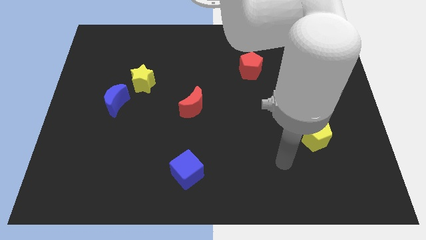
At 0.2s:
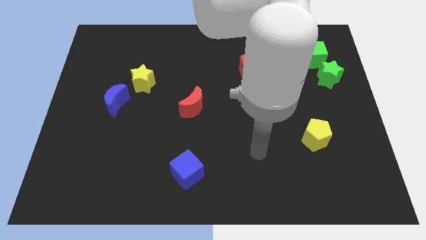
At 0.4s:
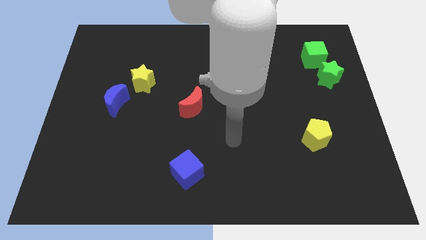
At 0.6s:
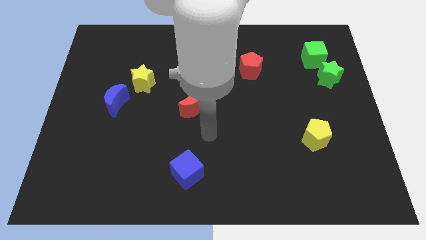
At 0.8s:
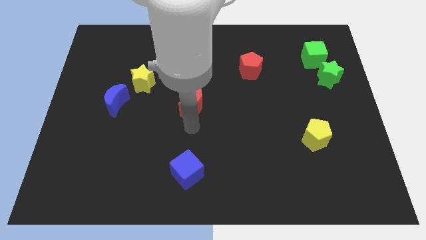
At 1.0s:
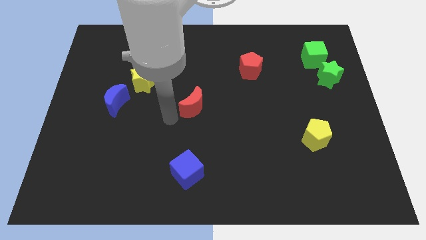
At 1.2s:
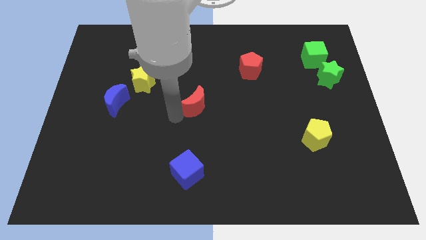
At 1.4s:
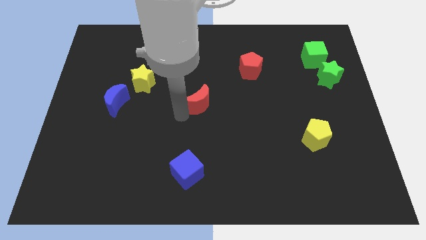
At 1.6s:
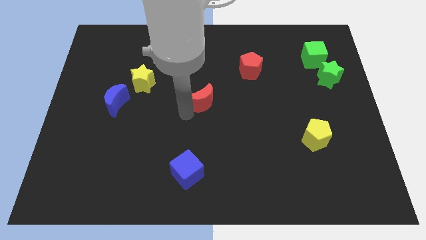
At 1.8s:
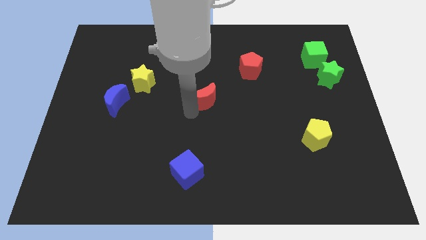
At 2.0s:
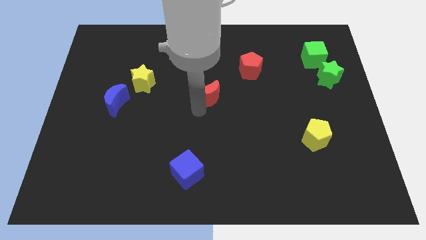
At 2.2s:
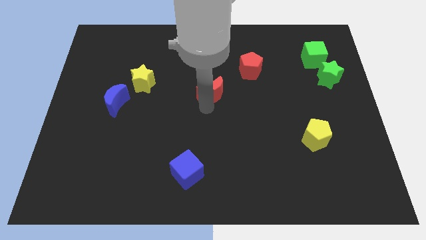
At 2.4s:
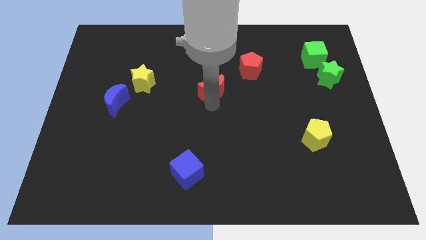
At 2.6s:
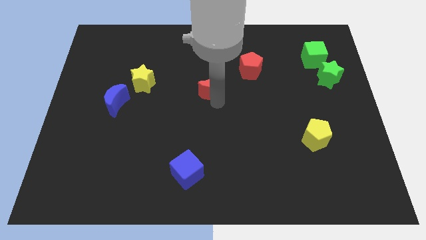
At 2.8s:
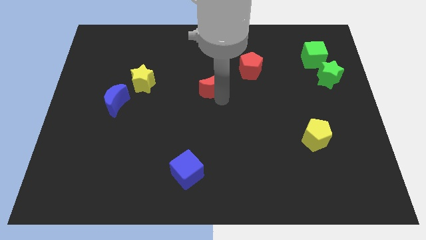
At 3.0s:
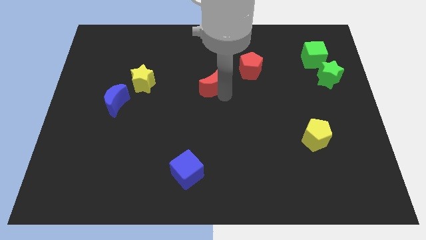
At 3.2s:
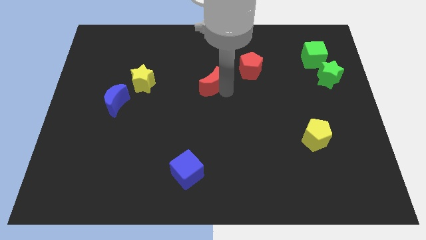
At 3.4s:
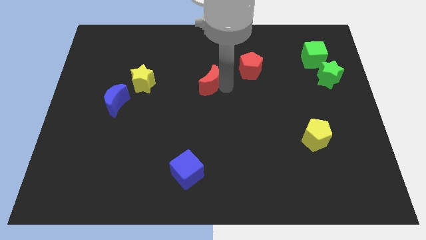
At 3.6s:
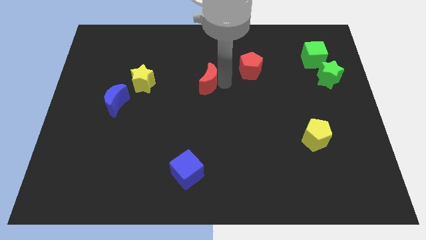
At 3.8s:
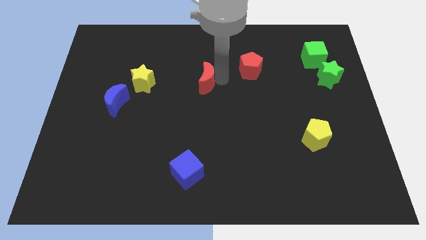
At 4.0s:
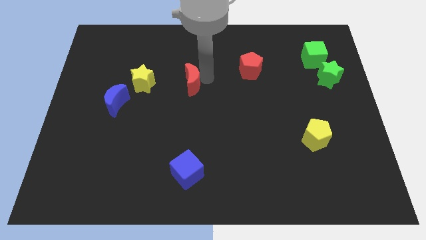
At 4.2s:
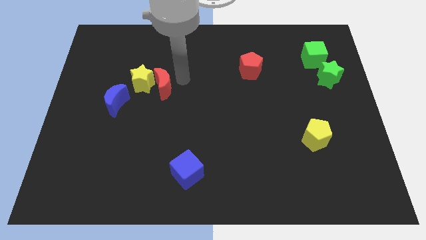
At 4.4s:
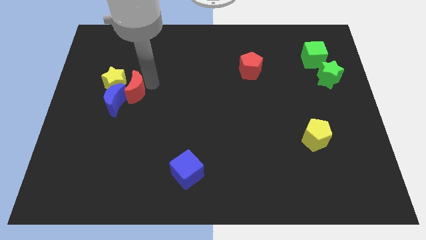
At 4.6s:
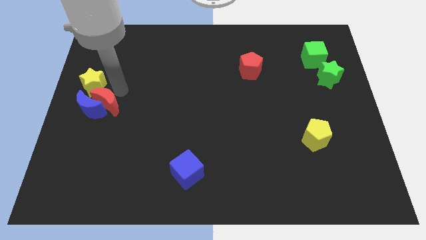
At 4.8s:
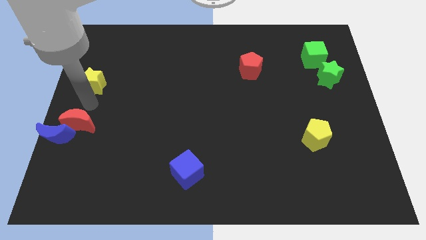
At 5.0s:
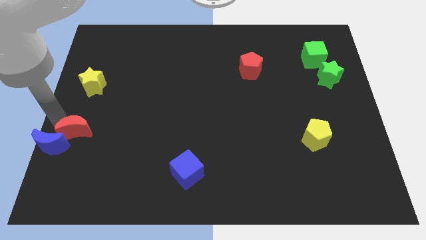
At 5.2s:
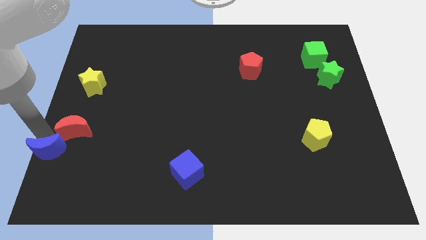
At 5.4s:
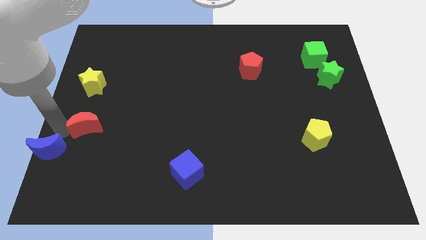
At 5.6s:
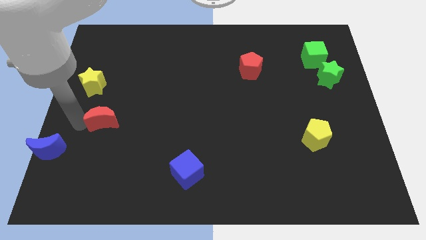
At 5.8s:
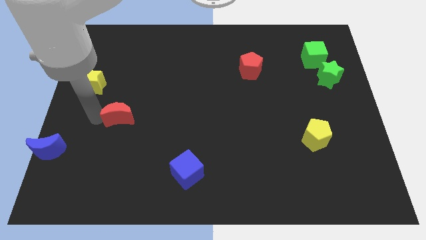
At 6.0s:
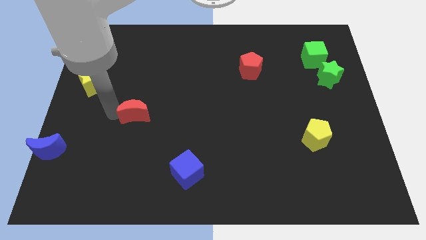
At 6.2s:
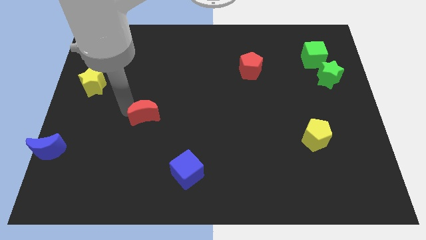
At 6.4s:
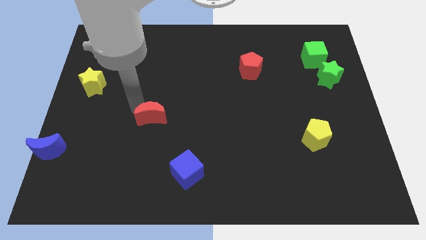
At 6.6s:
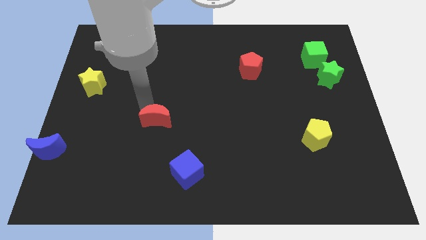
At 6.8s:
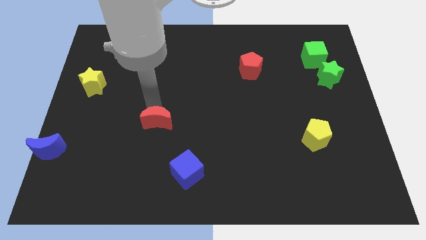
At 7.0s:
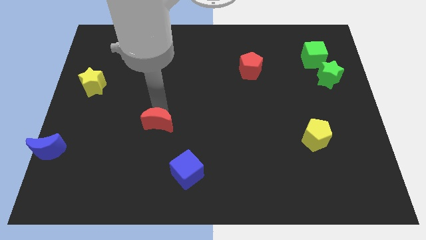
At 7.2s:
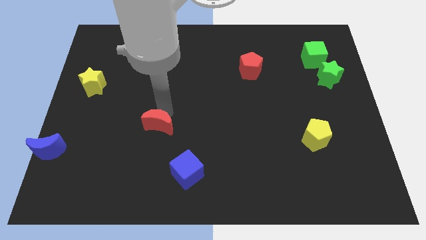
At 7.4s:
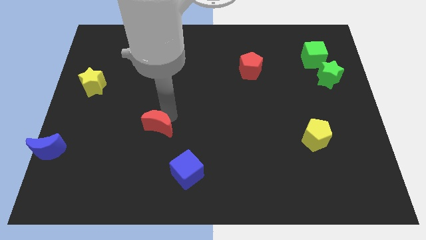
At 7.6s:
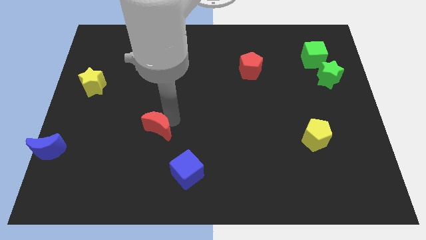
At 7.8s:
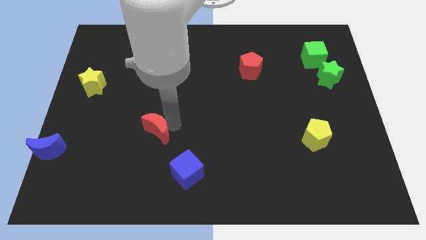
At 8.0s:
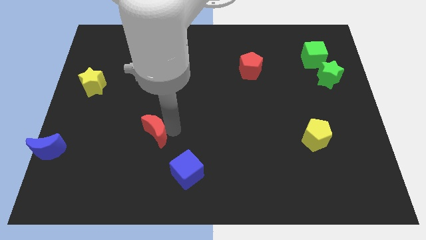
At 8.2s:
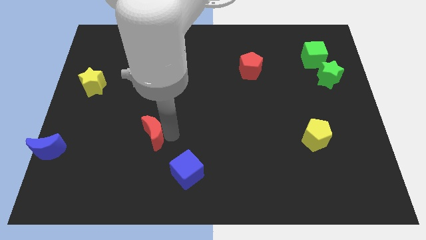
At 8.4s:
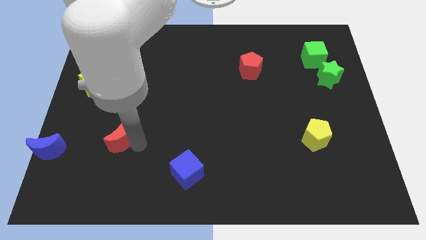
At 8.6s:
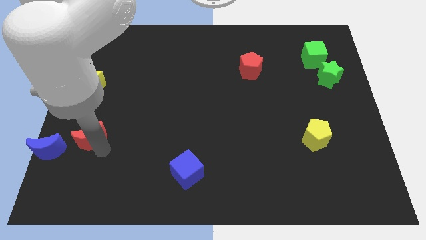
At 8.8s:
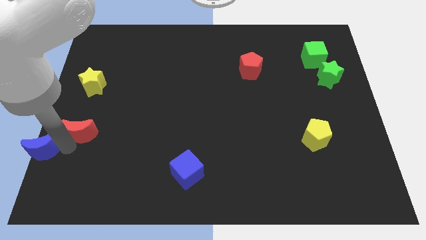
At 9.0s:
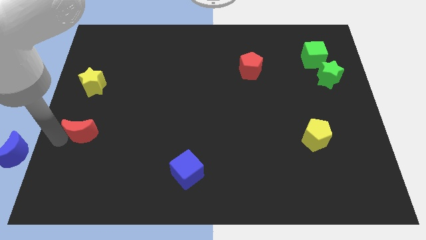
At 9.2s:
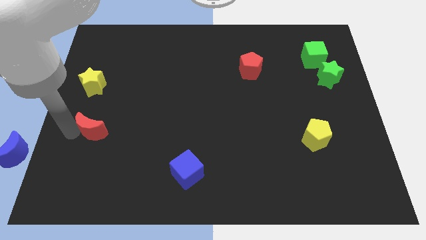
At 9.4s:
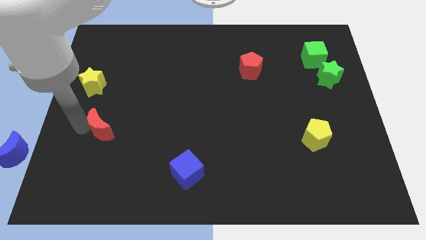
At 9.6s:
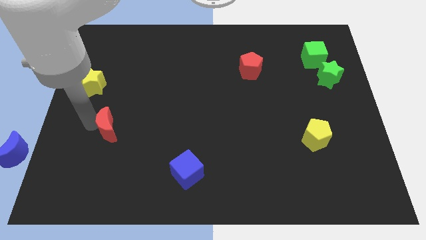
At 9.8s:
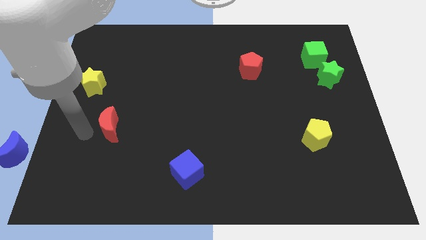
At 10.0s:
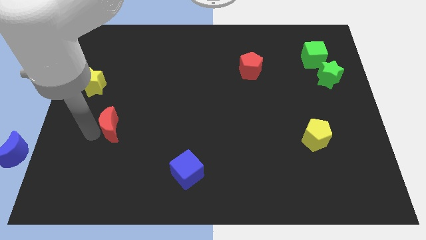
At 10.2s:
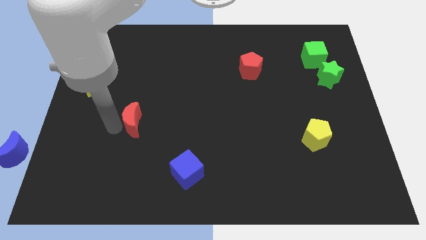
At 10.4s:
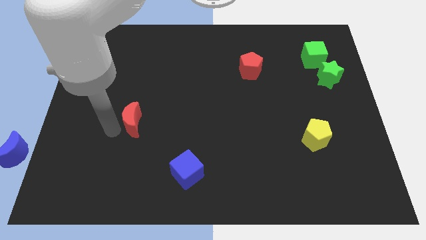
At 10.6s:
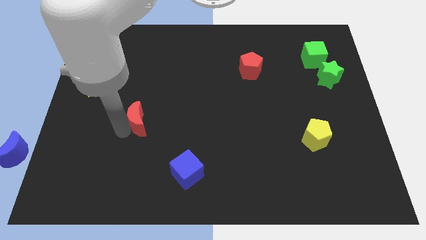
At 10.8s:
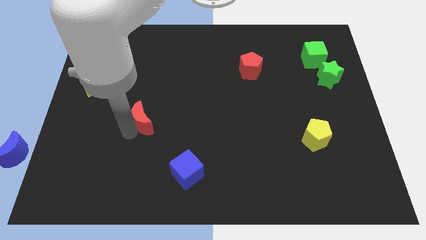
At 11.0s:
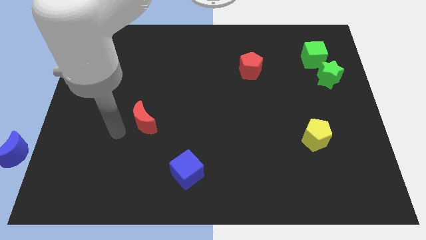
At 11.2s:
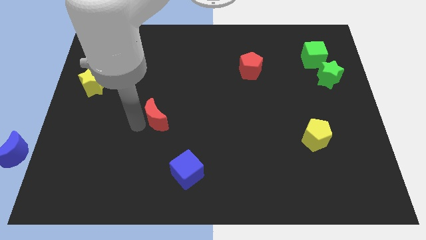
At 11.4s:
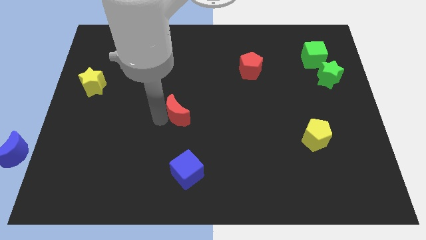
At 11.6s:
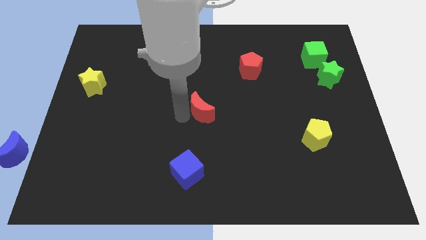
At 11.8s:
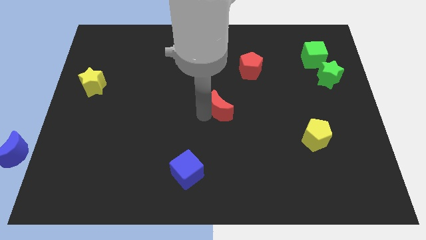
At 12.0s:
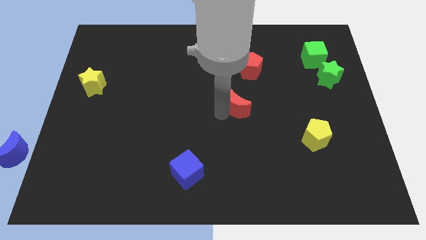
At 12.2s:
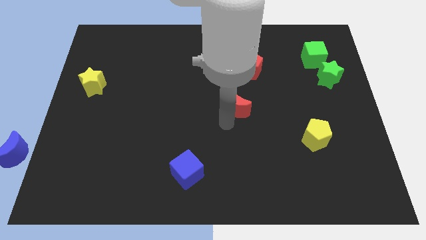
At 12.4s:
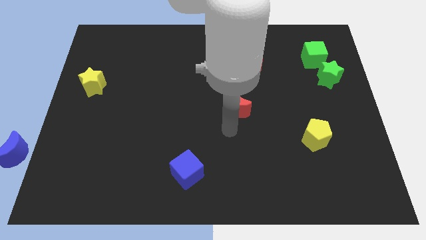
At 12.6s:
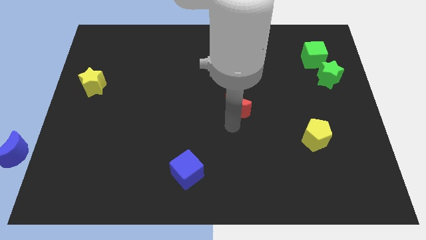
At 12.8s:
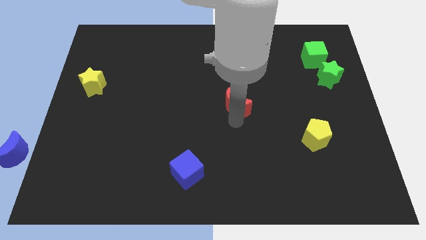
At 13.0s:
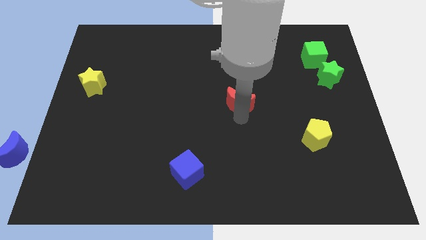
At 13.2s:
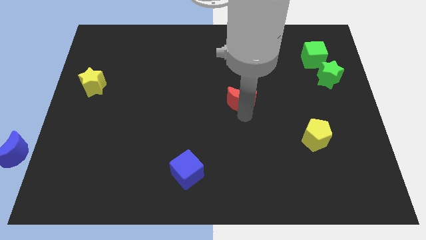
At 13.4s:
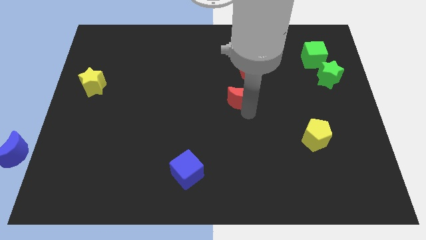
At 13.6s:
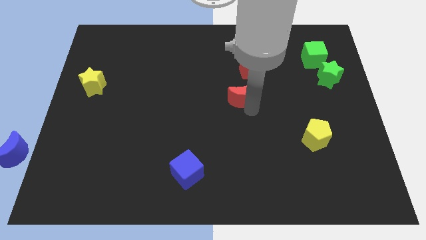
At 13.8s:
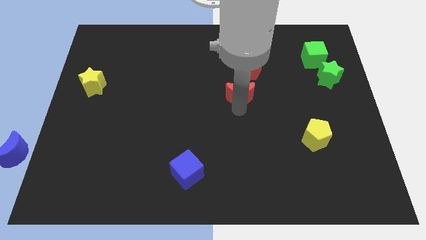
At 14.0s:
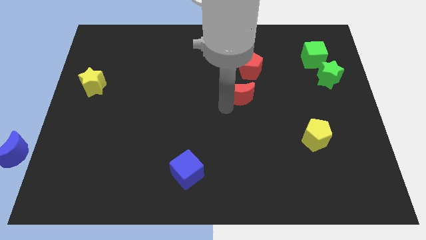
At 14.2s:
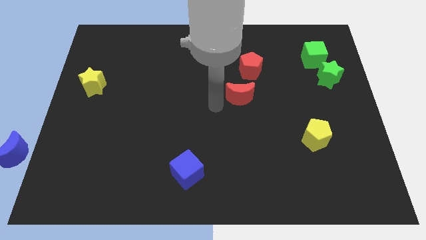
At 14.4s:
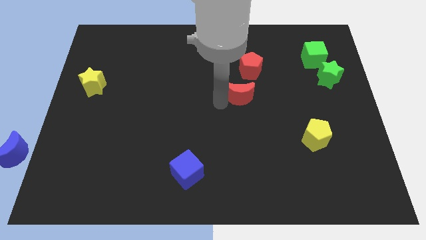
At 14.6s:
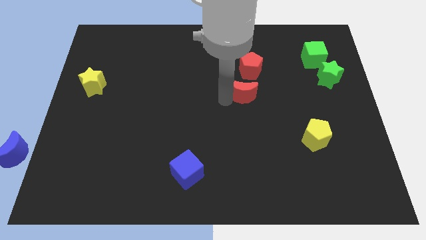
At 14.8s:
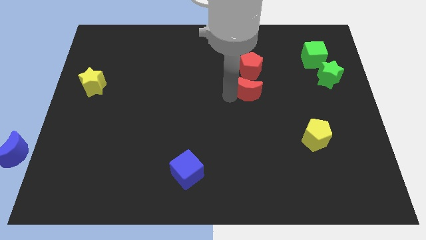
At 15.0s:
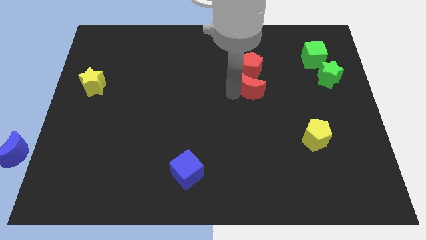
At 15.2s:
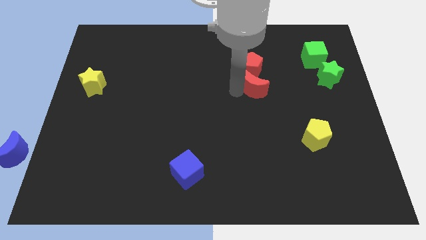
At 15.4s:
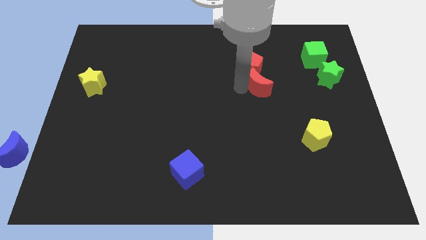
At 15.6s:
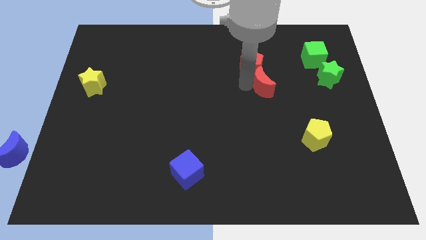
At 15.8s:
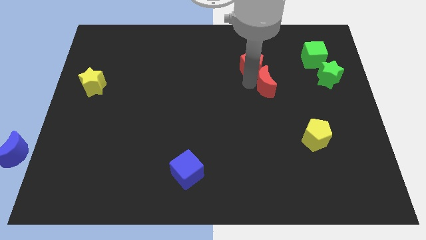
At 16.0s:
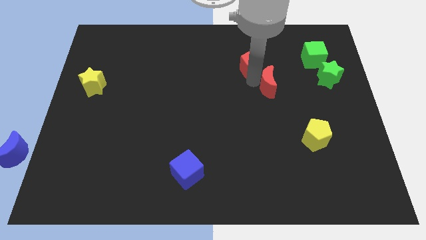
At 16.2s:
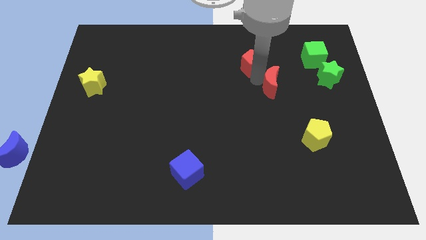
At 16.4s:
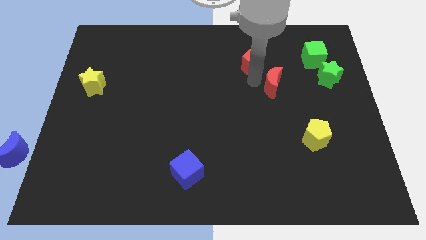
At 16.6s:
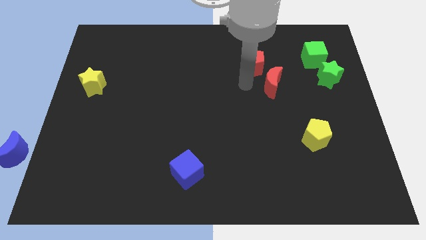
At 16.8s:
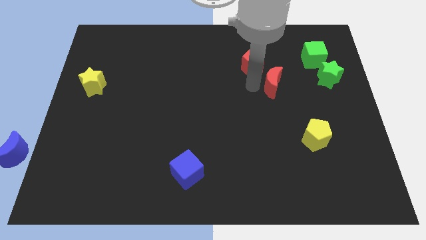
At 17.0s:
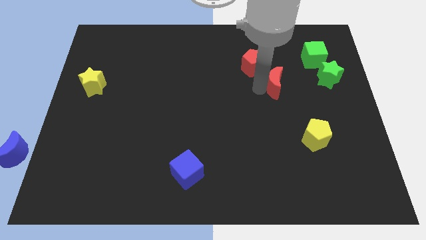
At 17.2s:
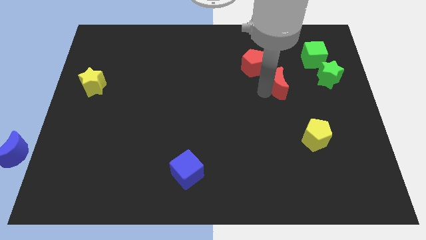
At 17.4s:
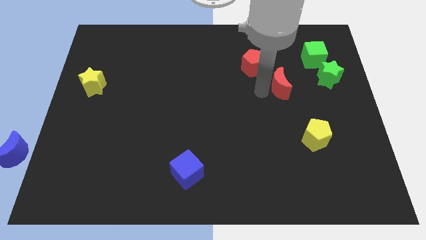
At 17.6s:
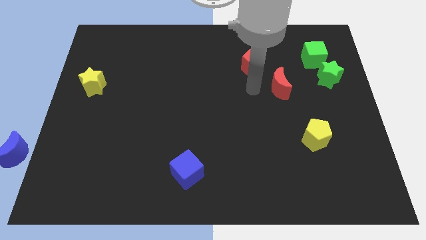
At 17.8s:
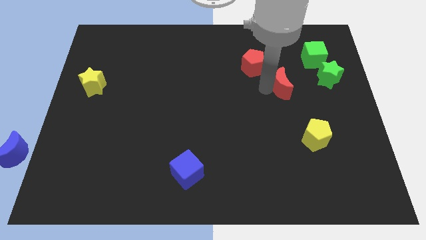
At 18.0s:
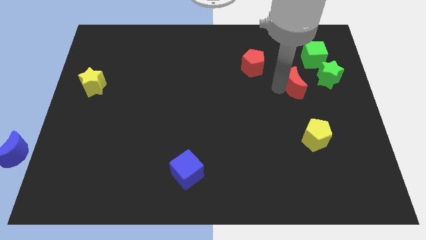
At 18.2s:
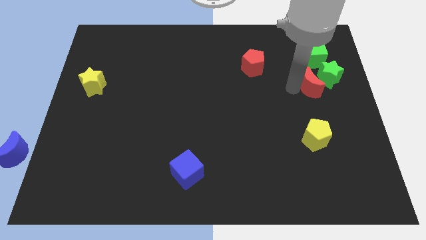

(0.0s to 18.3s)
slide the red moon towards the green star
